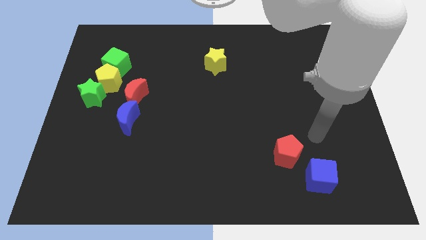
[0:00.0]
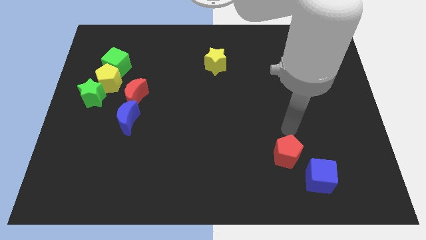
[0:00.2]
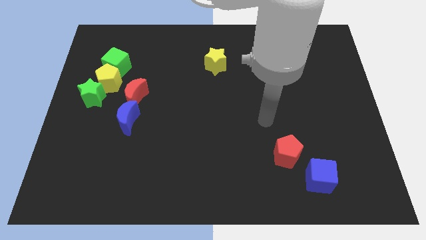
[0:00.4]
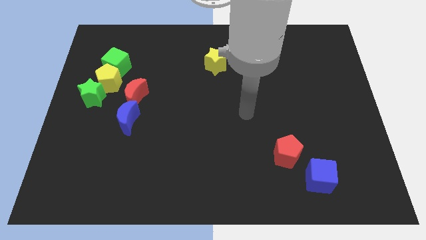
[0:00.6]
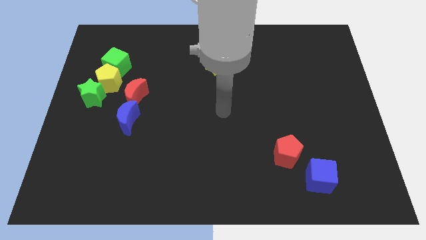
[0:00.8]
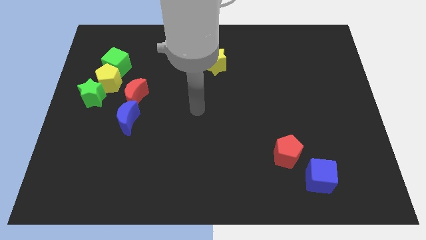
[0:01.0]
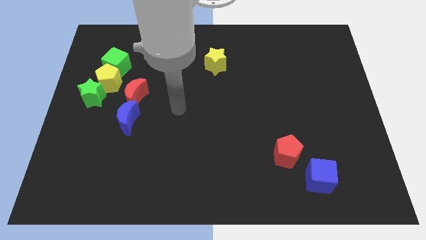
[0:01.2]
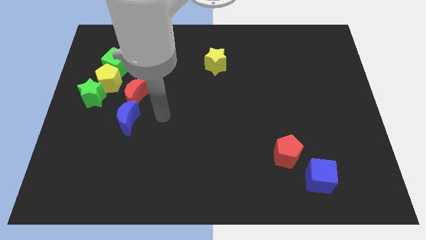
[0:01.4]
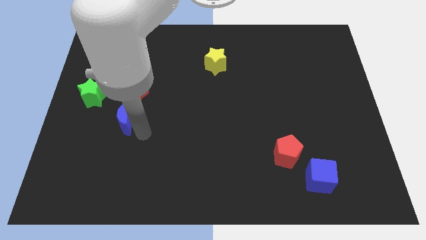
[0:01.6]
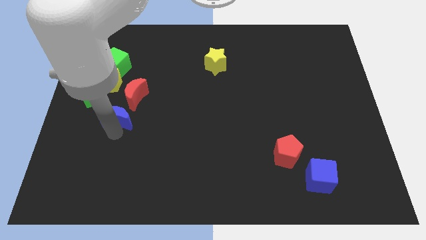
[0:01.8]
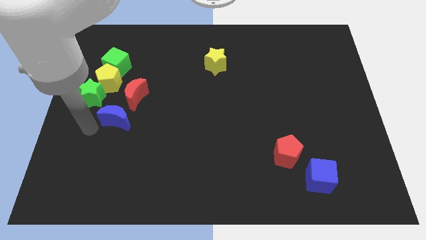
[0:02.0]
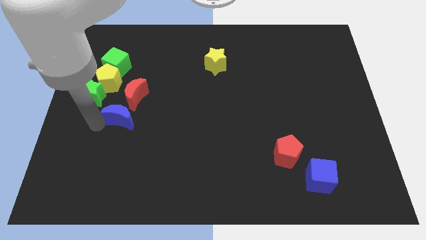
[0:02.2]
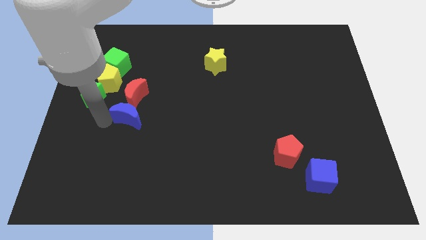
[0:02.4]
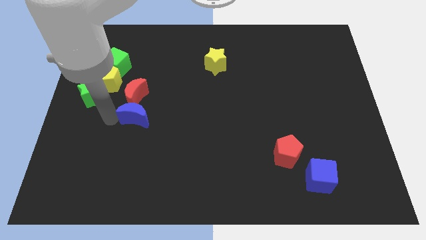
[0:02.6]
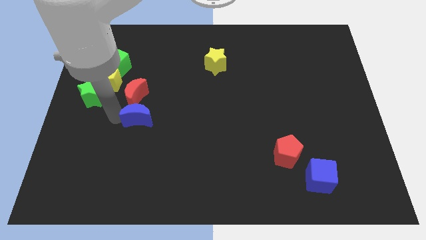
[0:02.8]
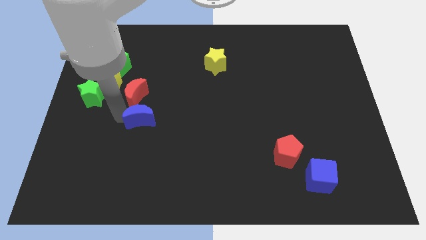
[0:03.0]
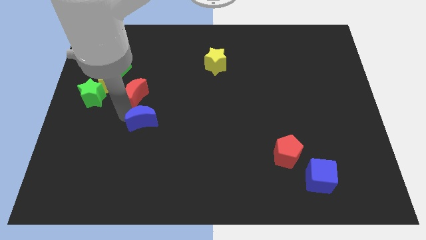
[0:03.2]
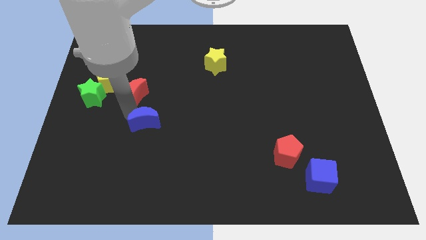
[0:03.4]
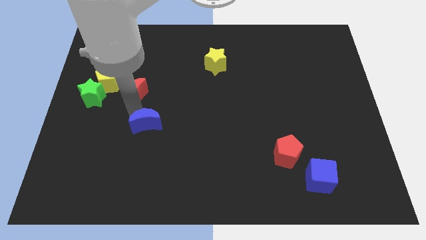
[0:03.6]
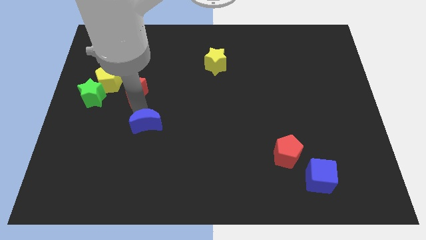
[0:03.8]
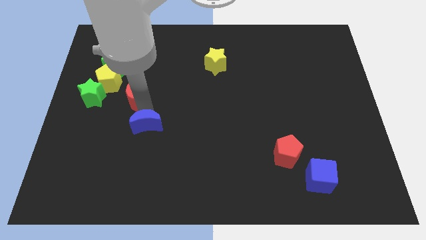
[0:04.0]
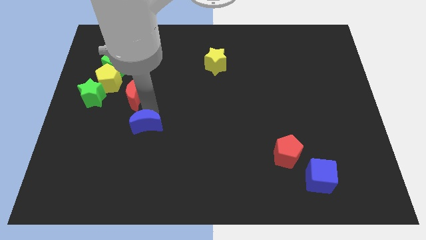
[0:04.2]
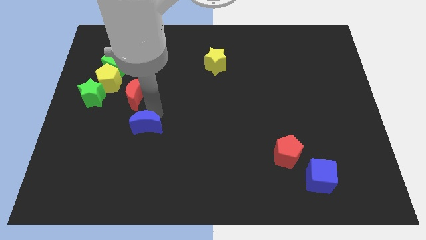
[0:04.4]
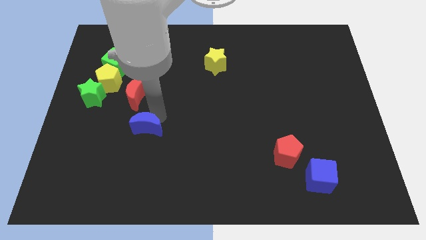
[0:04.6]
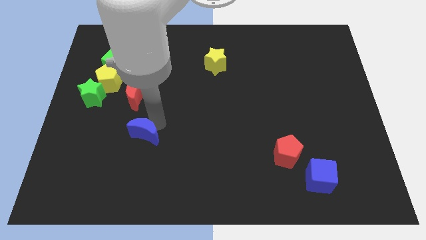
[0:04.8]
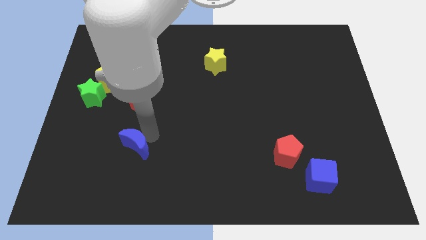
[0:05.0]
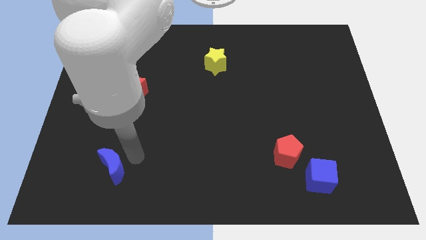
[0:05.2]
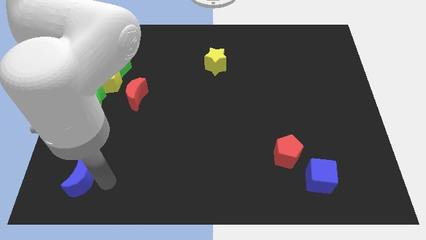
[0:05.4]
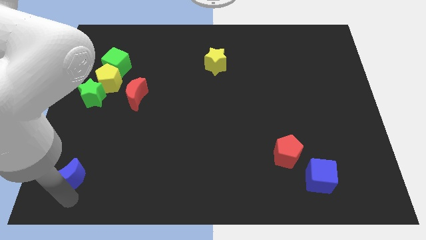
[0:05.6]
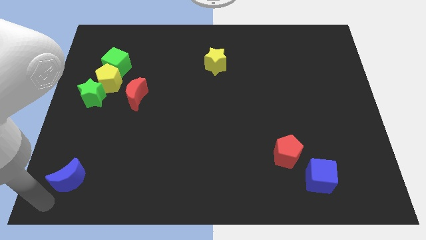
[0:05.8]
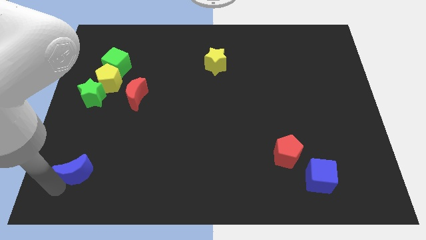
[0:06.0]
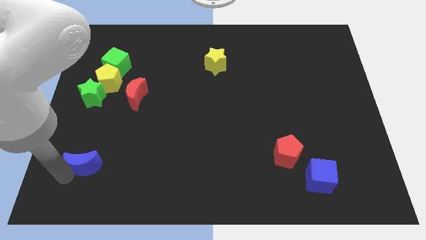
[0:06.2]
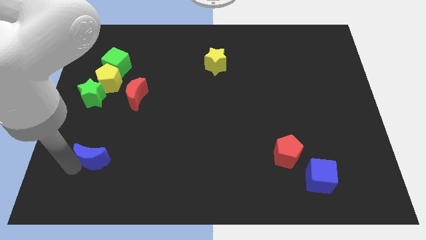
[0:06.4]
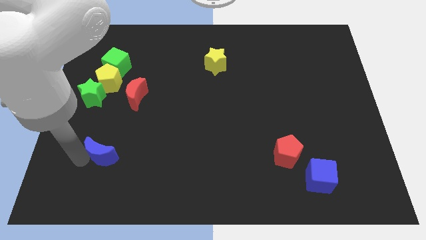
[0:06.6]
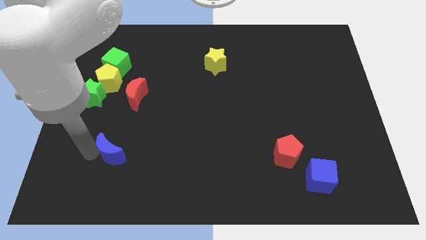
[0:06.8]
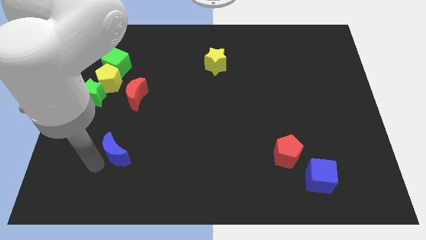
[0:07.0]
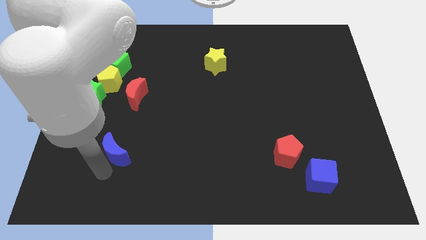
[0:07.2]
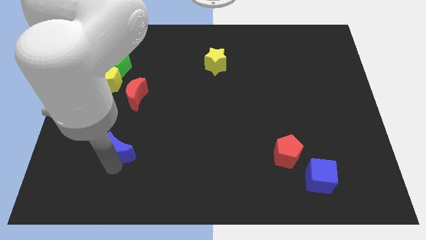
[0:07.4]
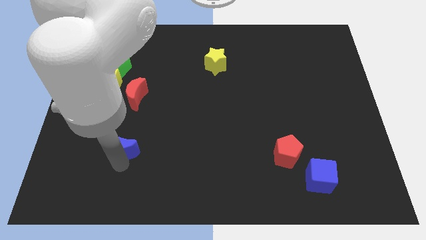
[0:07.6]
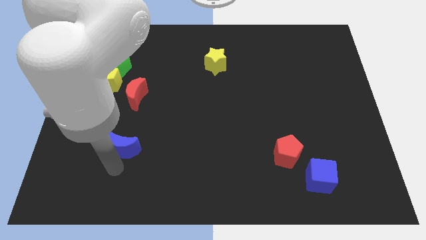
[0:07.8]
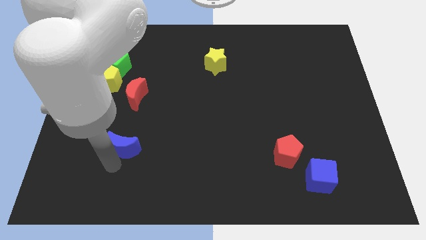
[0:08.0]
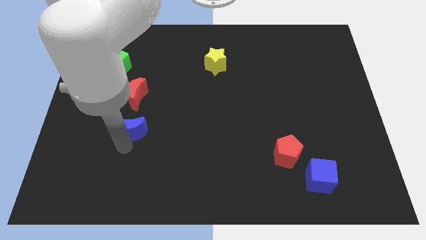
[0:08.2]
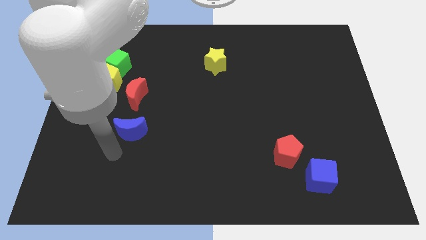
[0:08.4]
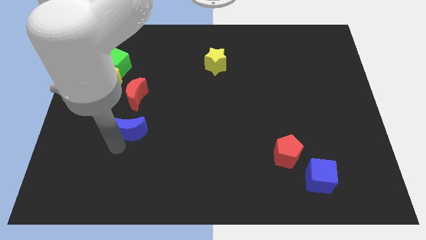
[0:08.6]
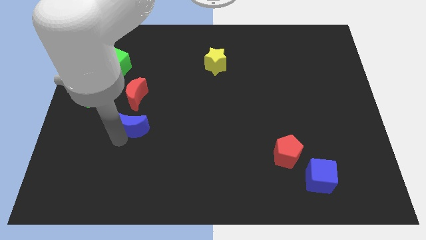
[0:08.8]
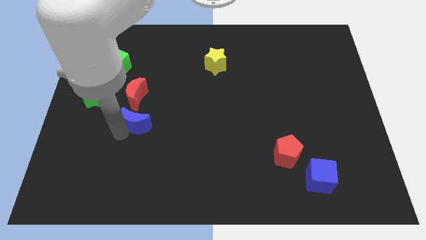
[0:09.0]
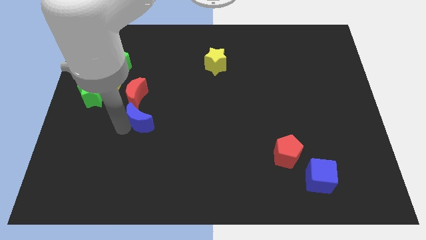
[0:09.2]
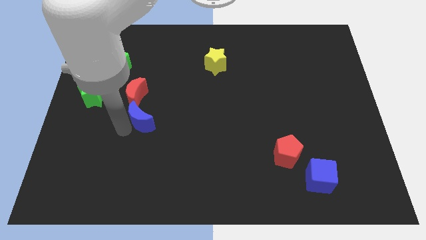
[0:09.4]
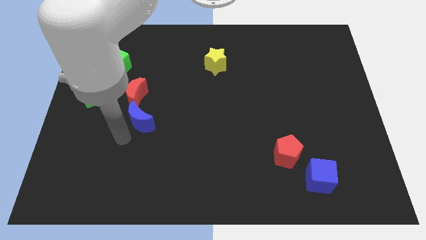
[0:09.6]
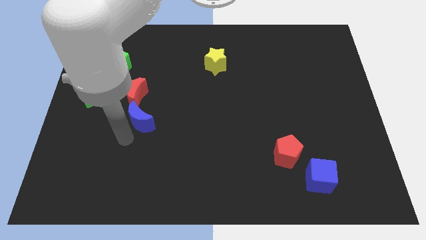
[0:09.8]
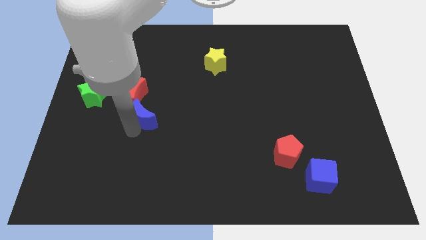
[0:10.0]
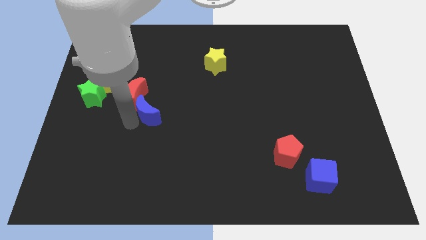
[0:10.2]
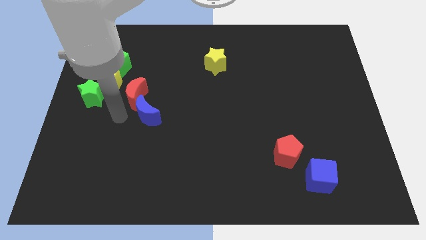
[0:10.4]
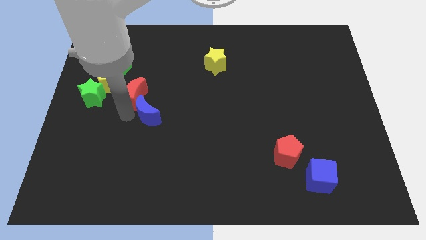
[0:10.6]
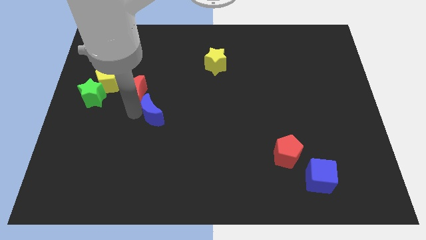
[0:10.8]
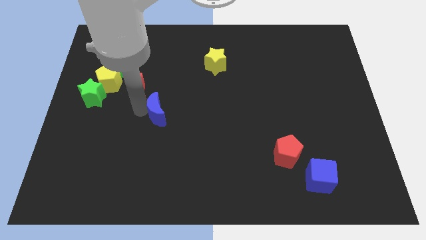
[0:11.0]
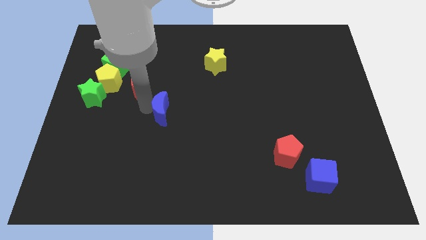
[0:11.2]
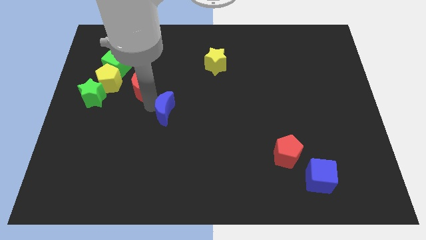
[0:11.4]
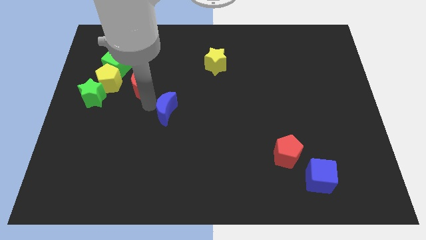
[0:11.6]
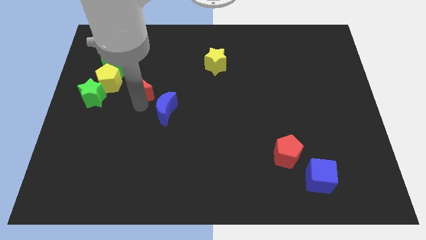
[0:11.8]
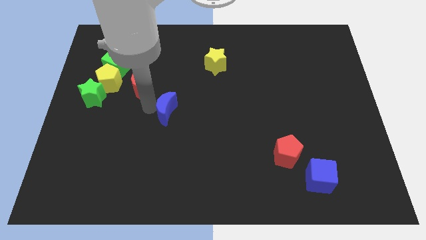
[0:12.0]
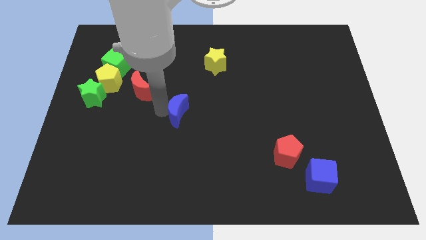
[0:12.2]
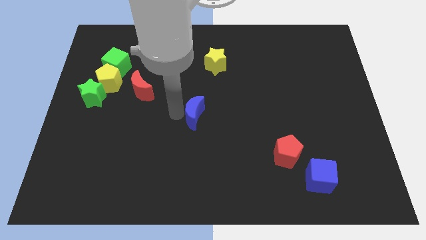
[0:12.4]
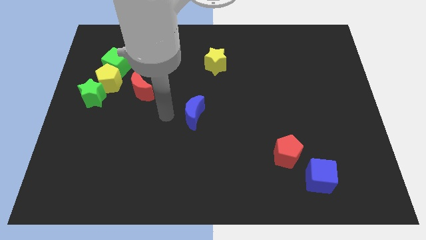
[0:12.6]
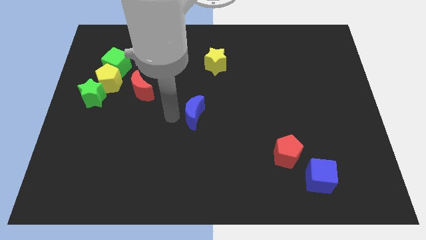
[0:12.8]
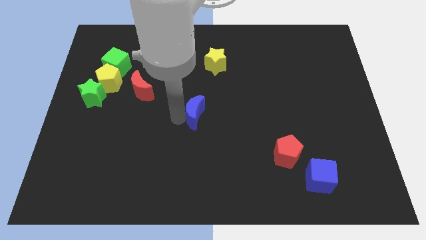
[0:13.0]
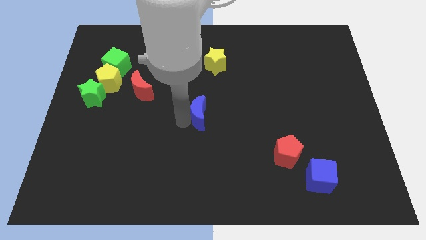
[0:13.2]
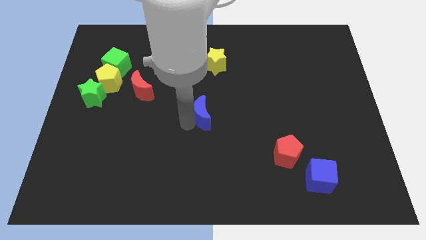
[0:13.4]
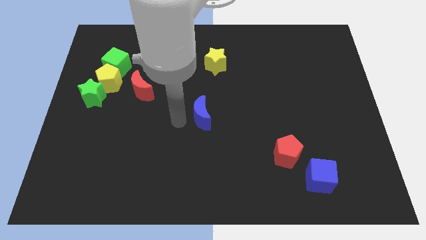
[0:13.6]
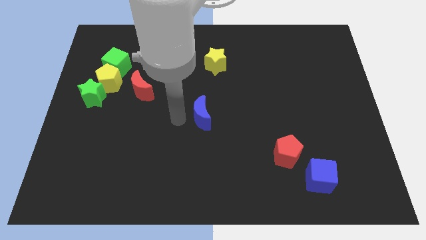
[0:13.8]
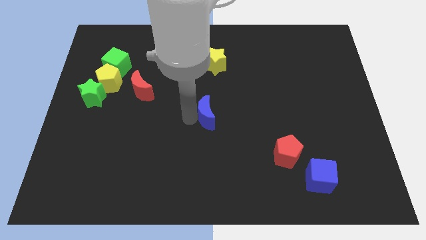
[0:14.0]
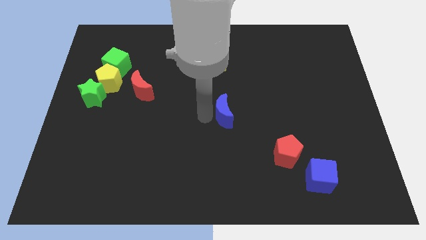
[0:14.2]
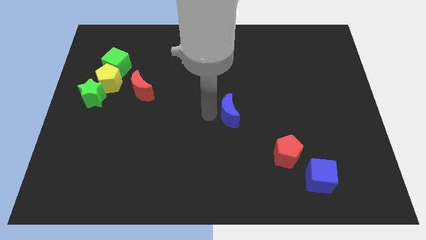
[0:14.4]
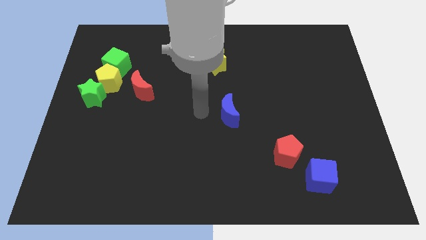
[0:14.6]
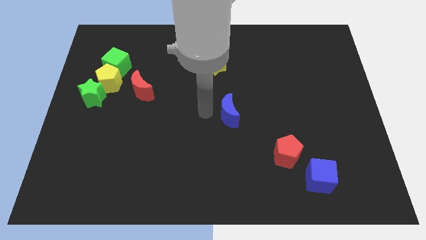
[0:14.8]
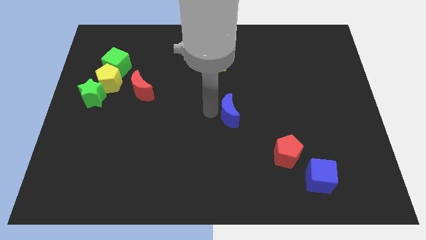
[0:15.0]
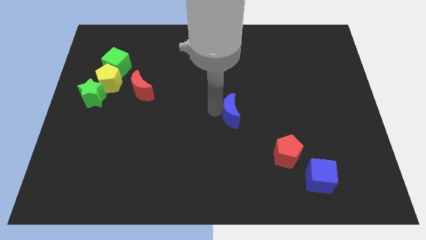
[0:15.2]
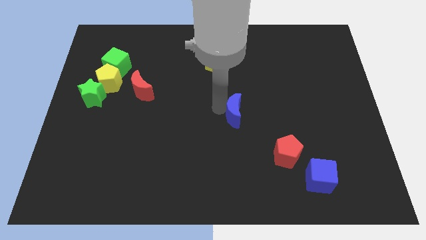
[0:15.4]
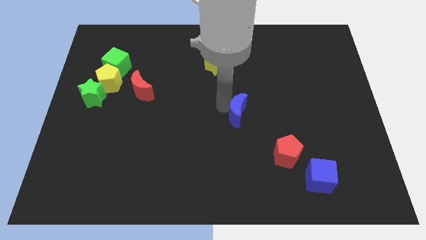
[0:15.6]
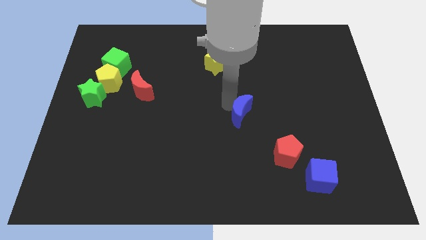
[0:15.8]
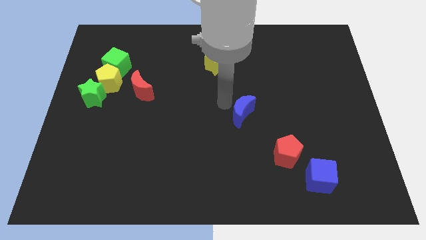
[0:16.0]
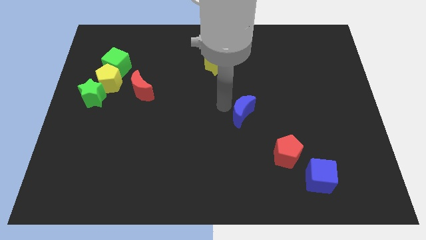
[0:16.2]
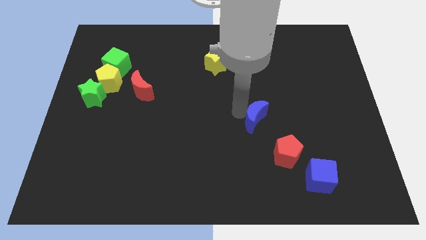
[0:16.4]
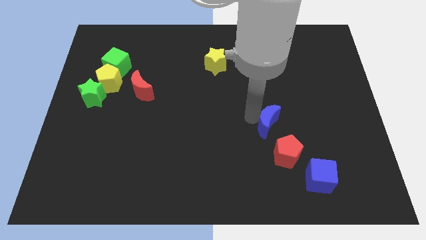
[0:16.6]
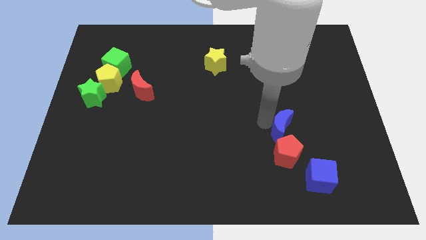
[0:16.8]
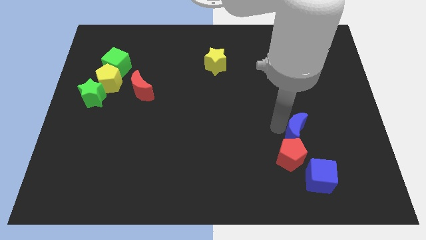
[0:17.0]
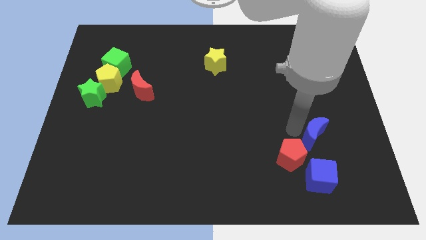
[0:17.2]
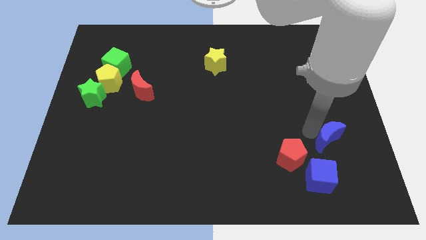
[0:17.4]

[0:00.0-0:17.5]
put the blue moon to the right side of the red pentagon
